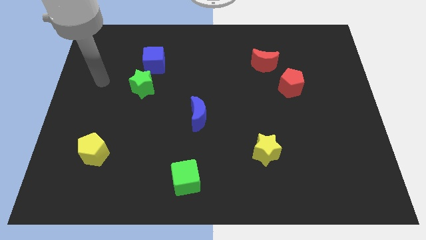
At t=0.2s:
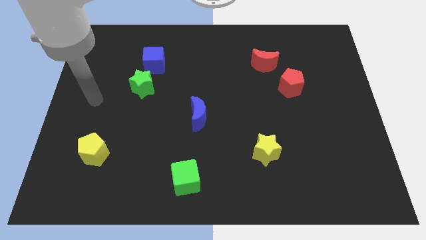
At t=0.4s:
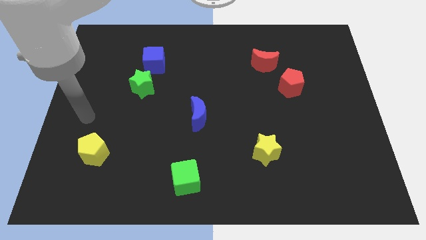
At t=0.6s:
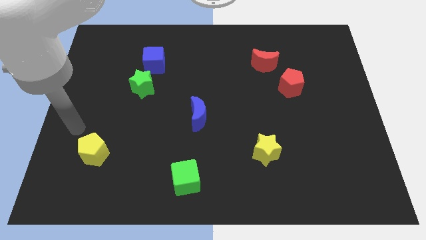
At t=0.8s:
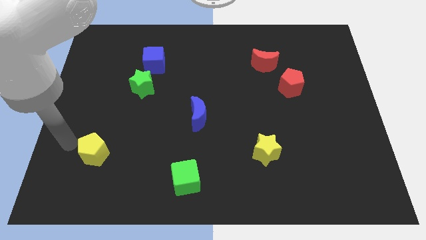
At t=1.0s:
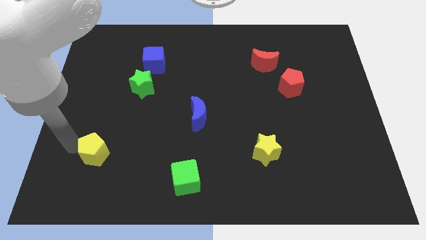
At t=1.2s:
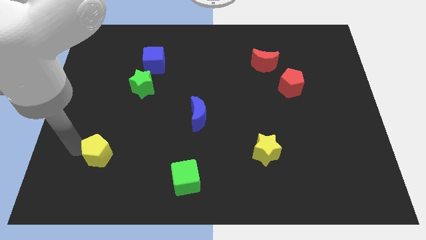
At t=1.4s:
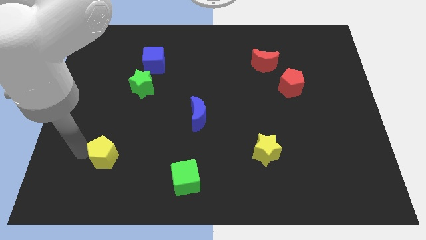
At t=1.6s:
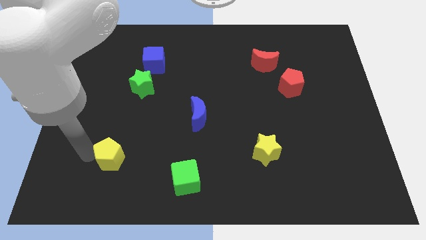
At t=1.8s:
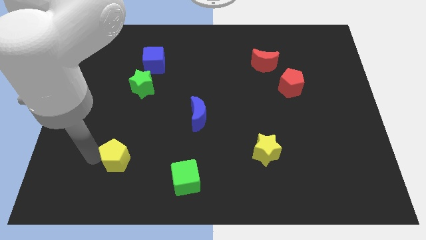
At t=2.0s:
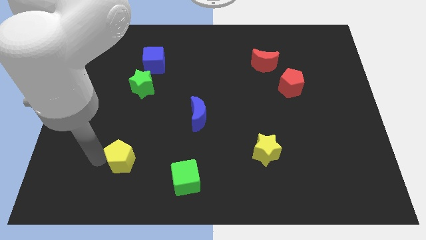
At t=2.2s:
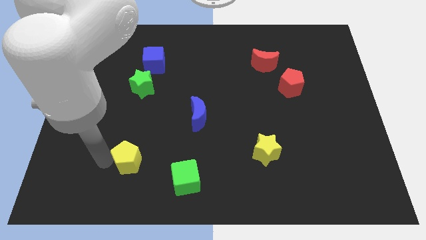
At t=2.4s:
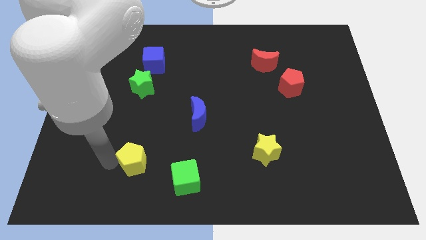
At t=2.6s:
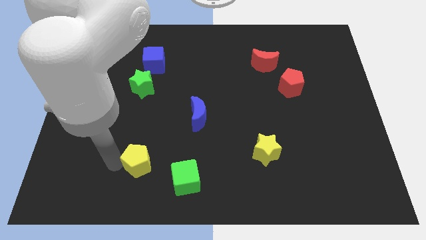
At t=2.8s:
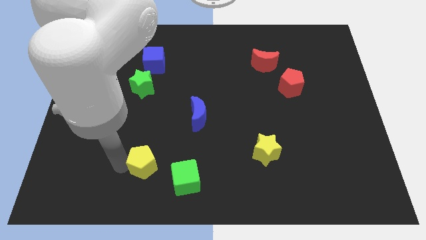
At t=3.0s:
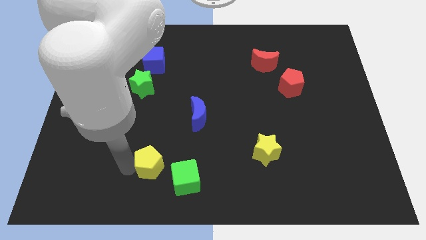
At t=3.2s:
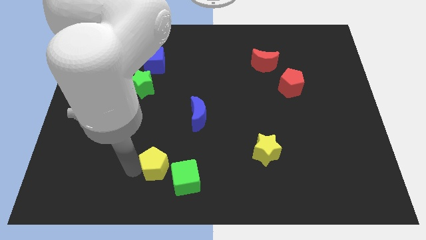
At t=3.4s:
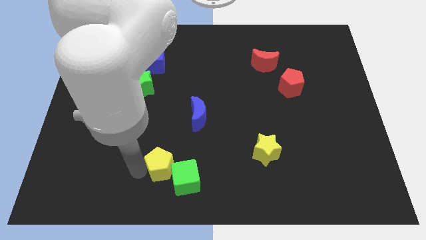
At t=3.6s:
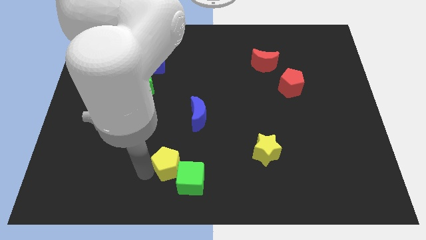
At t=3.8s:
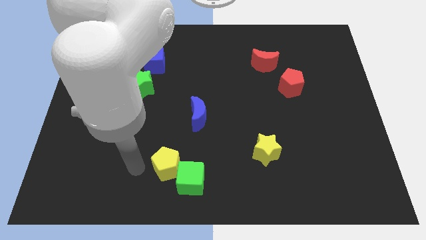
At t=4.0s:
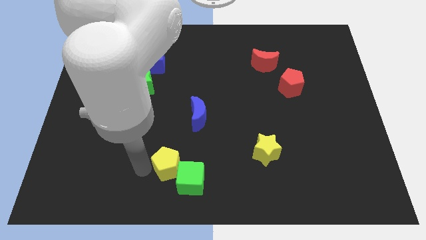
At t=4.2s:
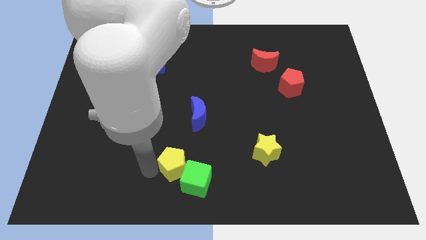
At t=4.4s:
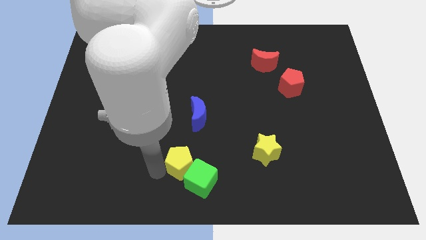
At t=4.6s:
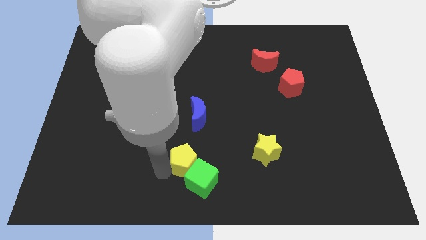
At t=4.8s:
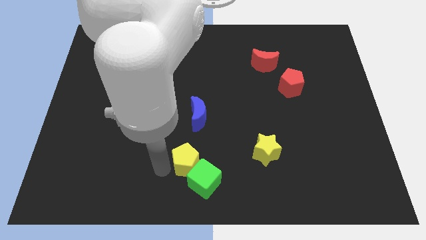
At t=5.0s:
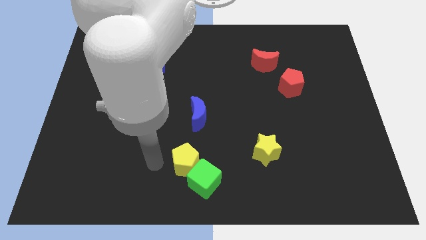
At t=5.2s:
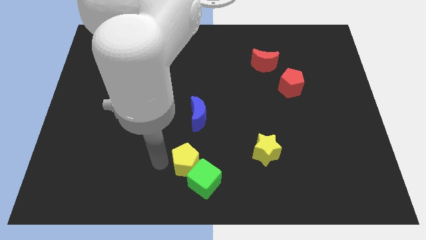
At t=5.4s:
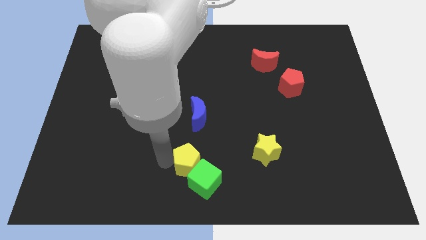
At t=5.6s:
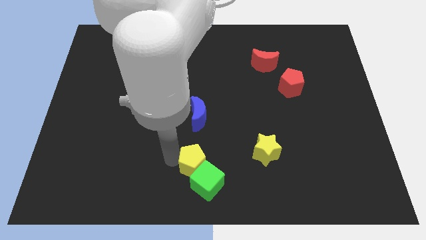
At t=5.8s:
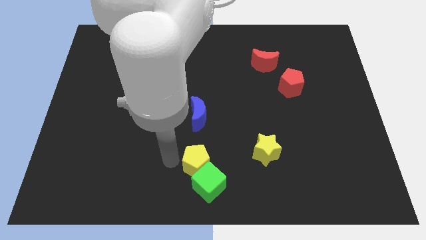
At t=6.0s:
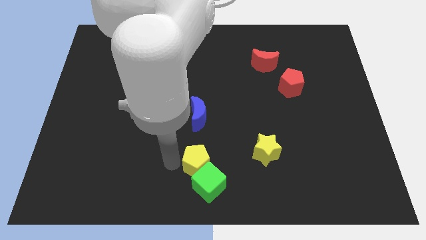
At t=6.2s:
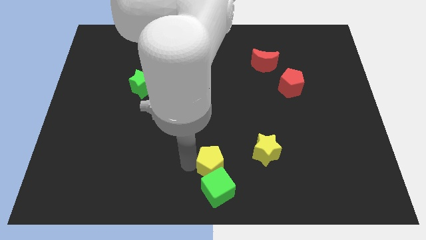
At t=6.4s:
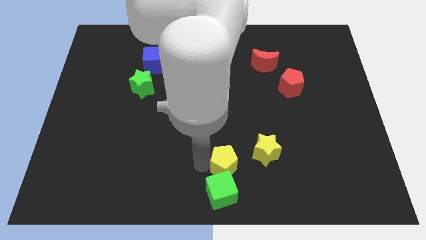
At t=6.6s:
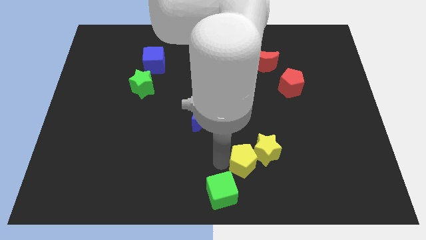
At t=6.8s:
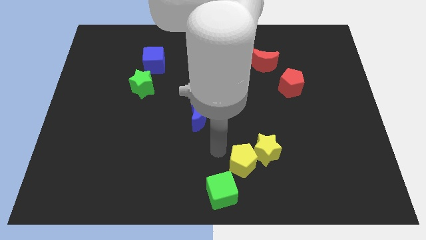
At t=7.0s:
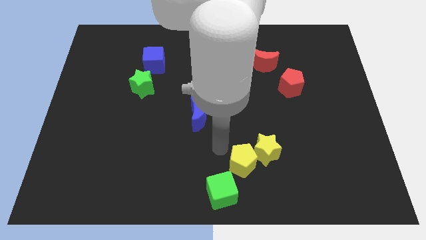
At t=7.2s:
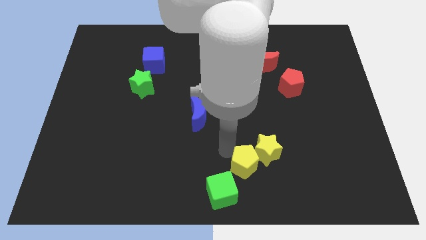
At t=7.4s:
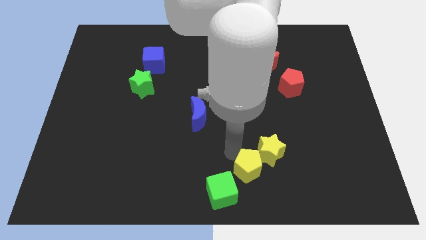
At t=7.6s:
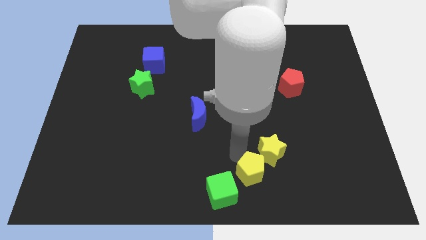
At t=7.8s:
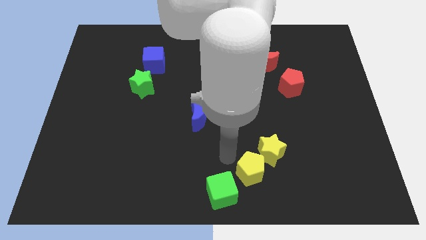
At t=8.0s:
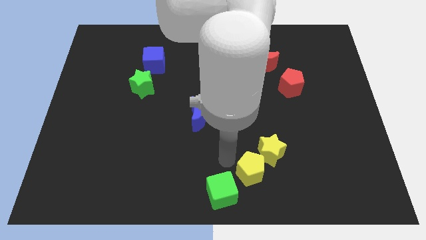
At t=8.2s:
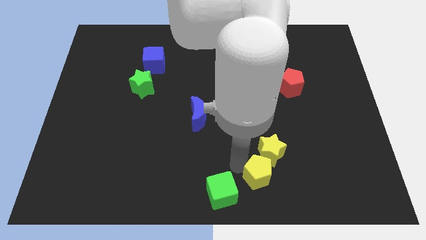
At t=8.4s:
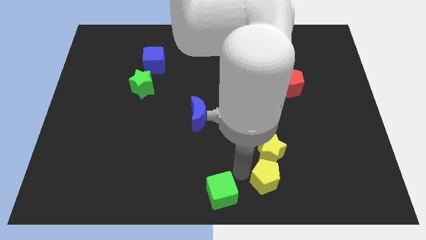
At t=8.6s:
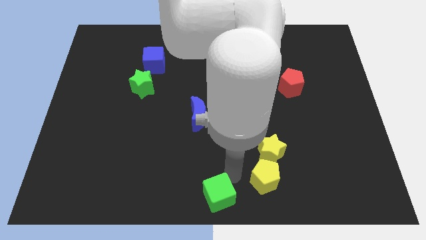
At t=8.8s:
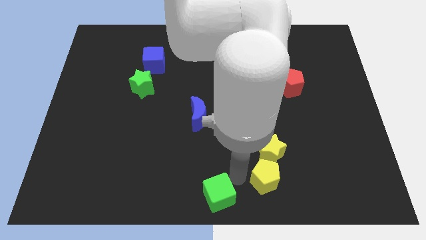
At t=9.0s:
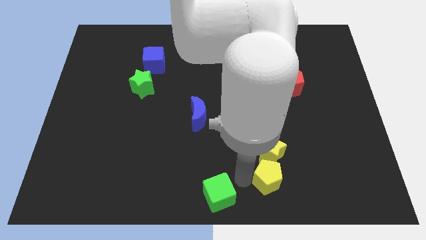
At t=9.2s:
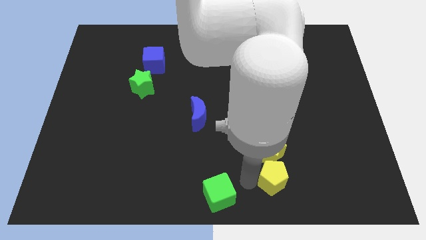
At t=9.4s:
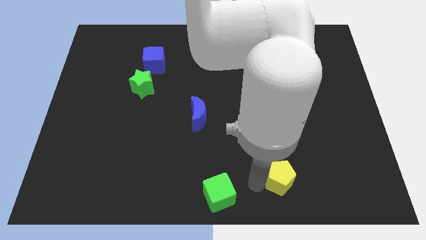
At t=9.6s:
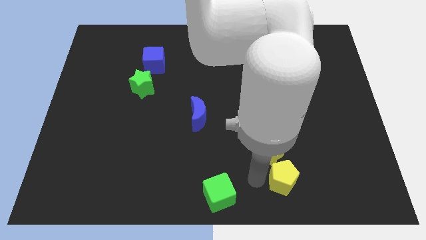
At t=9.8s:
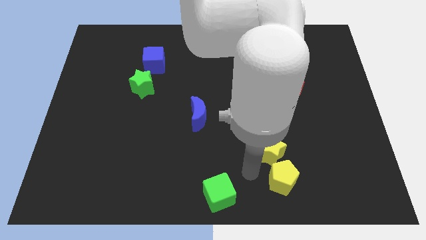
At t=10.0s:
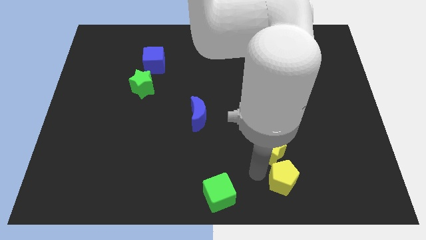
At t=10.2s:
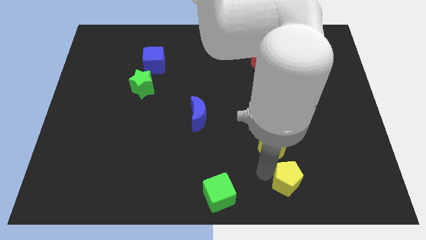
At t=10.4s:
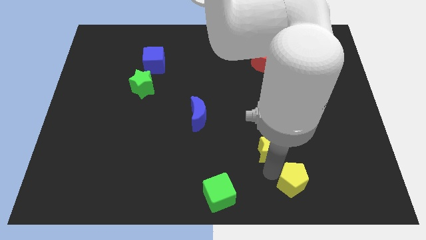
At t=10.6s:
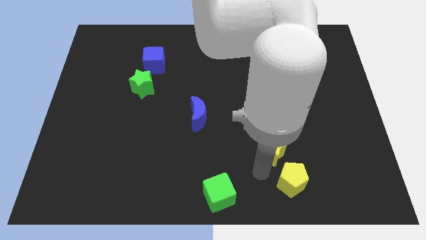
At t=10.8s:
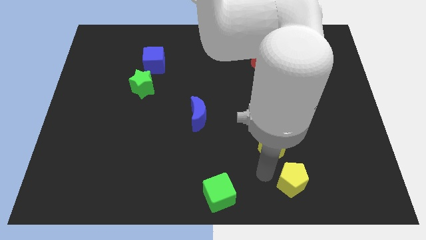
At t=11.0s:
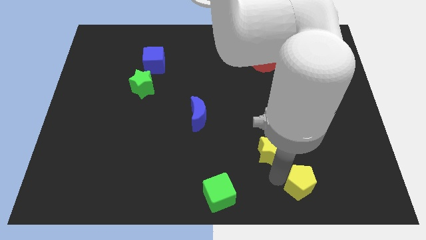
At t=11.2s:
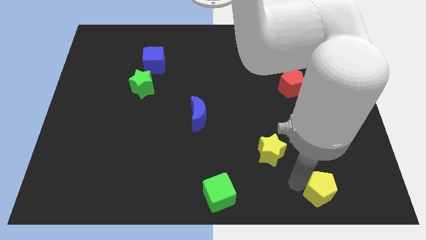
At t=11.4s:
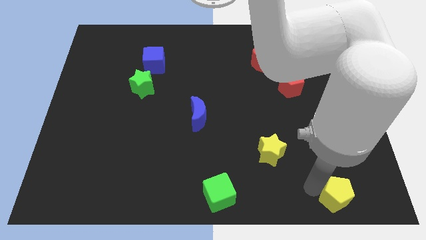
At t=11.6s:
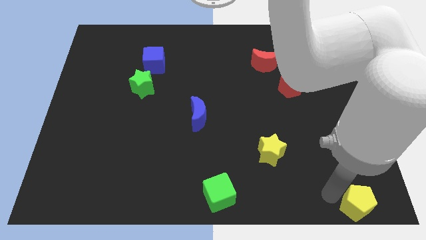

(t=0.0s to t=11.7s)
push the yellow pentagon to the bottom right corner
